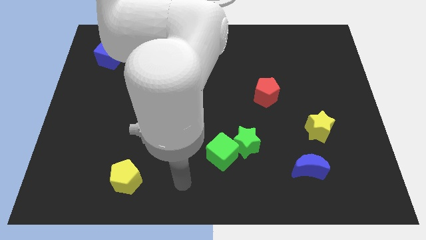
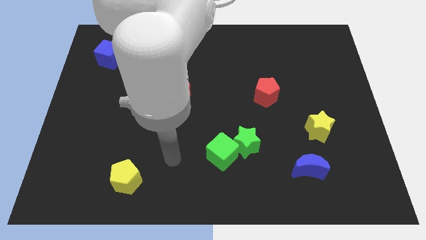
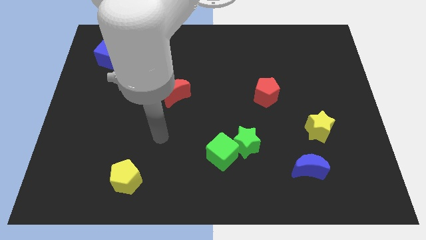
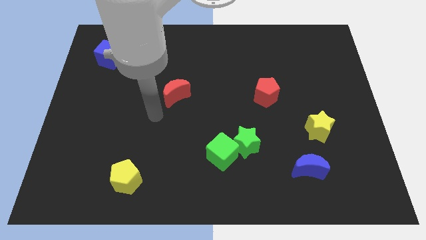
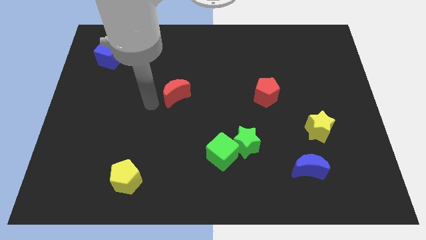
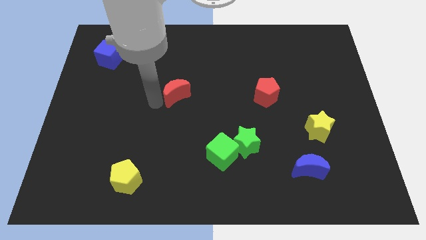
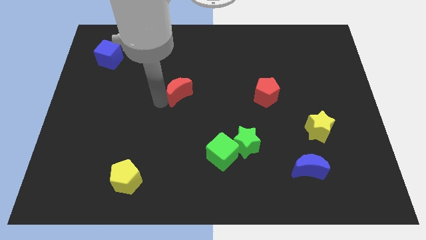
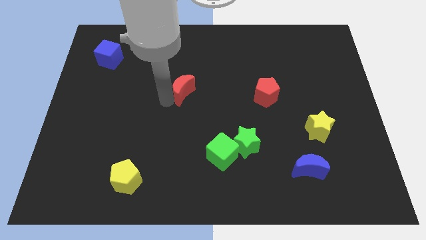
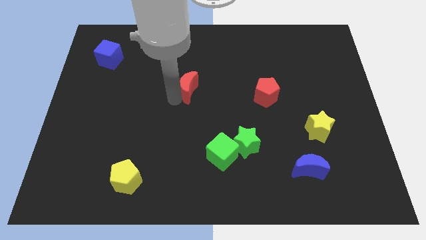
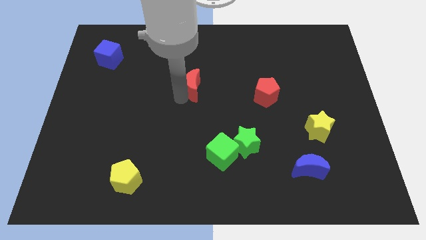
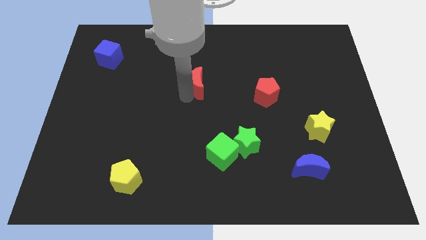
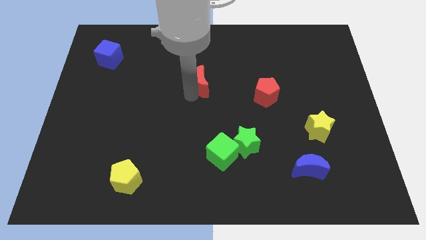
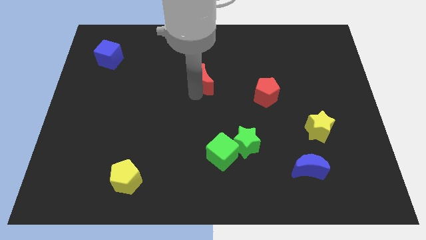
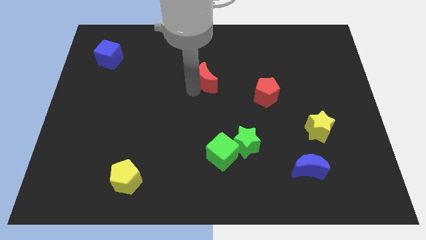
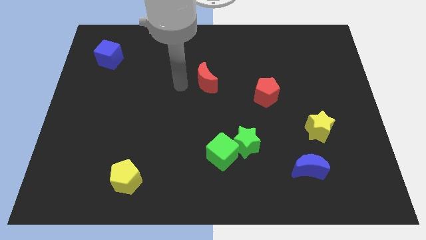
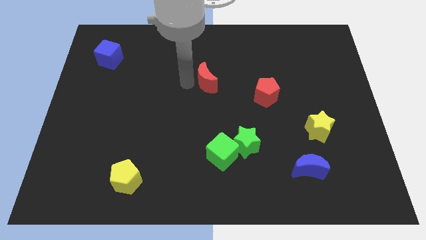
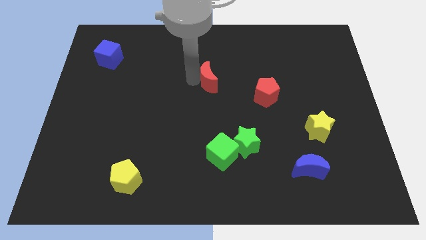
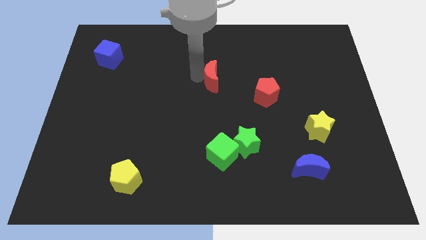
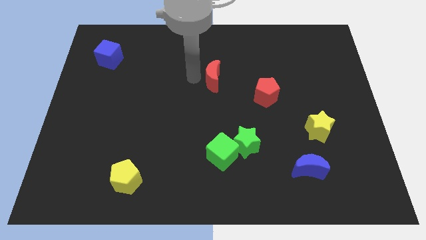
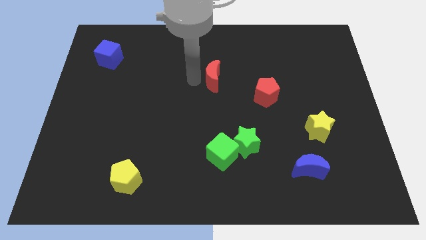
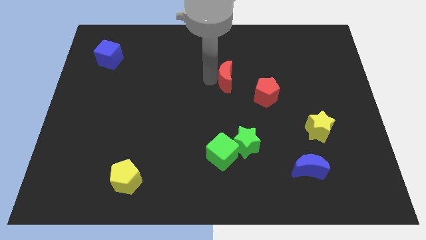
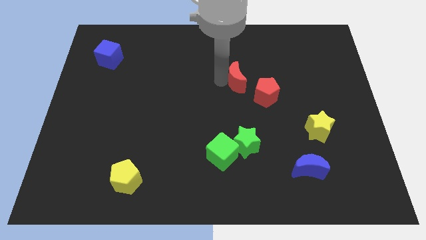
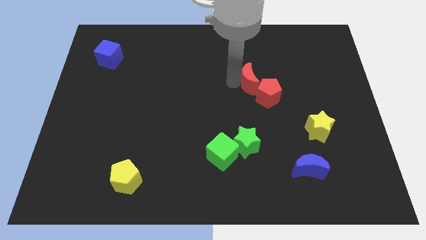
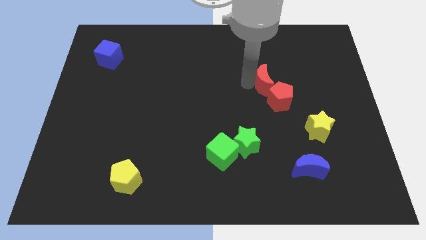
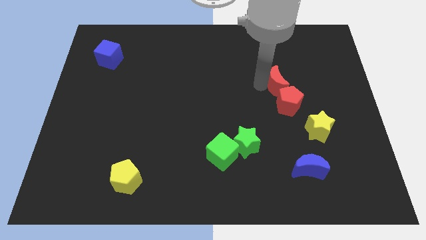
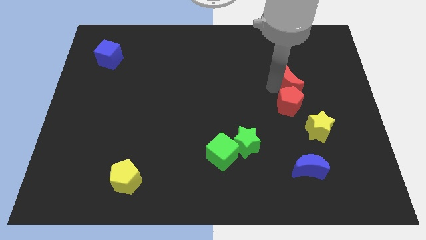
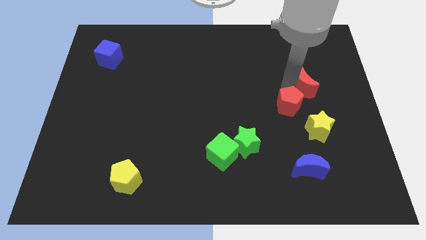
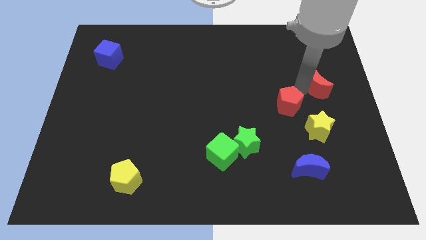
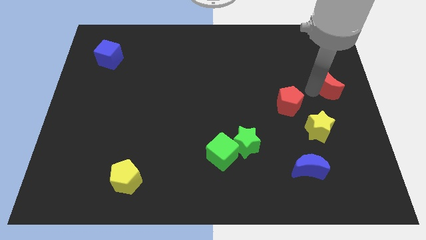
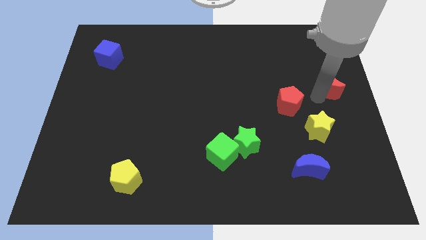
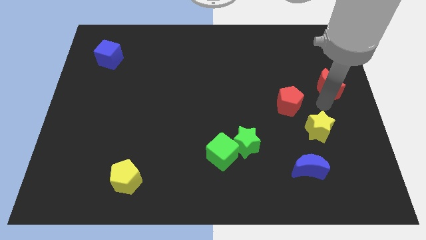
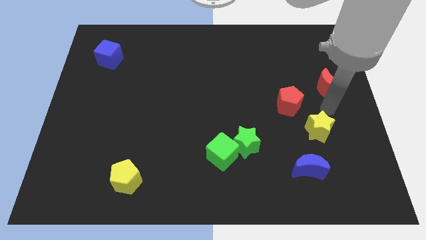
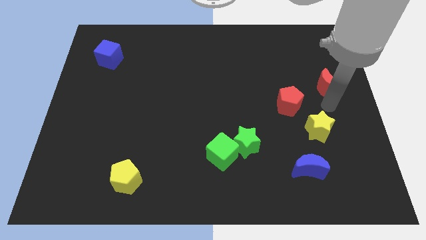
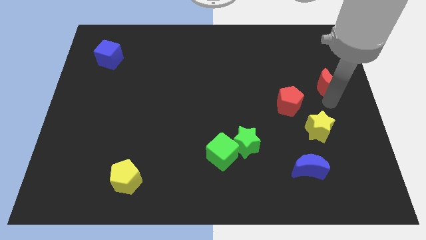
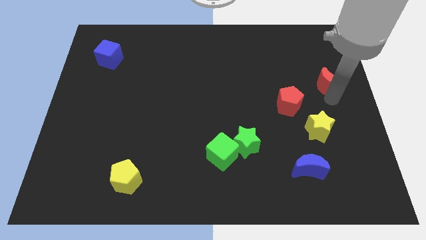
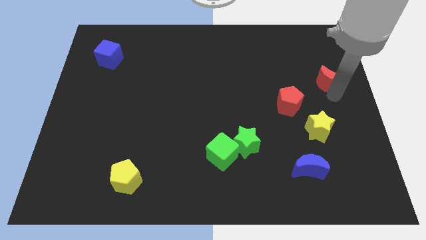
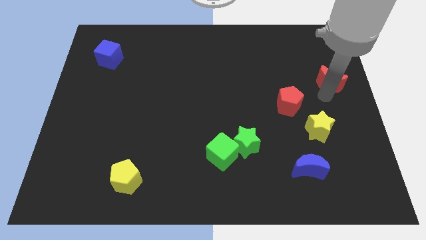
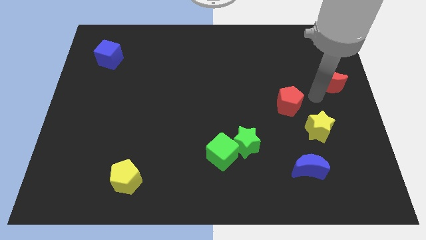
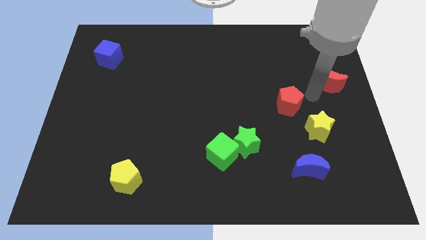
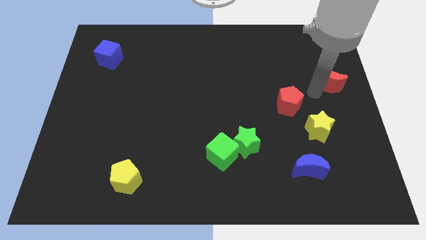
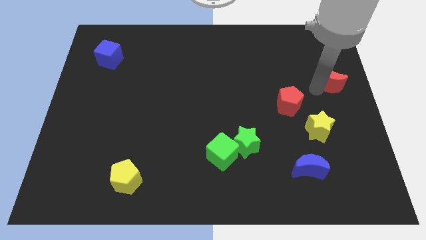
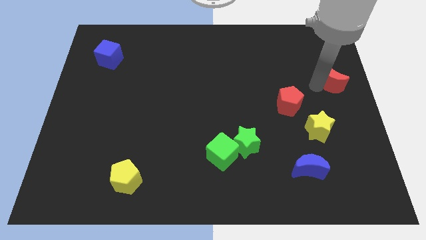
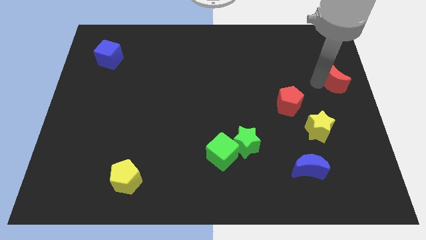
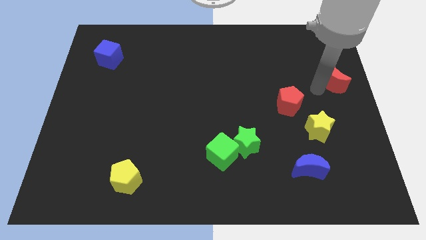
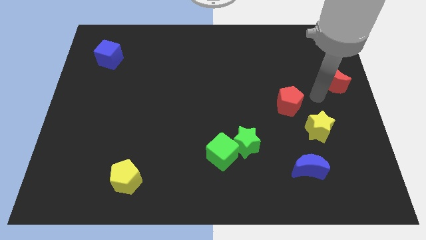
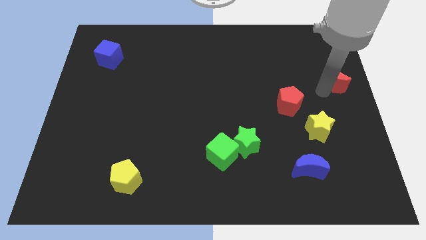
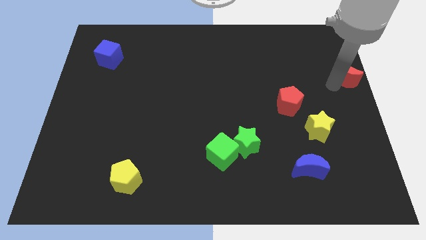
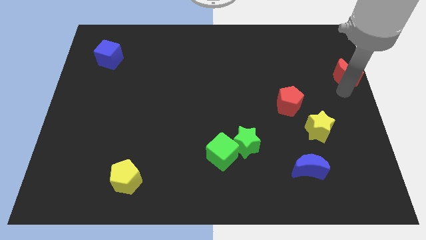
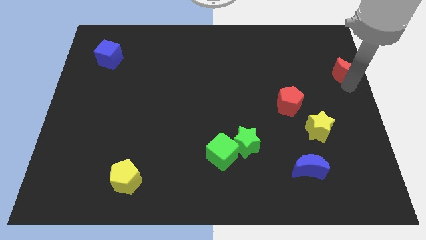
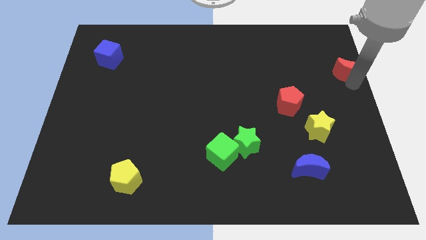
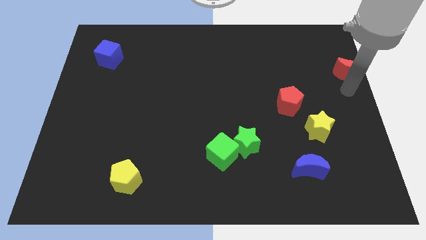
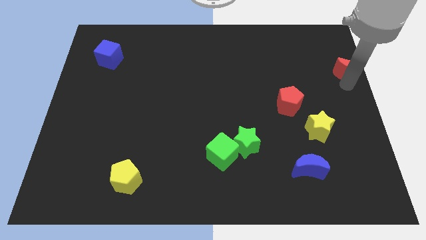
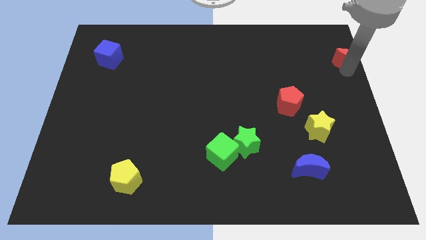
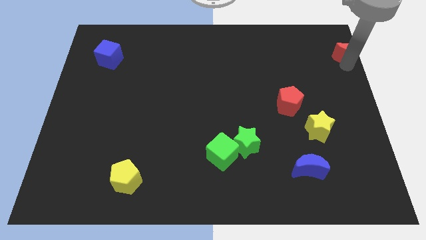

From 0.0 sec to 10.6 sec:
move the red moon to the top right of the board

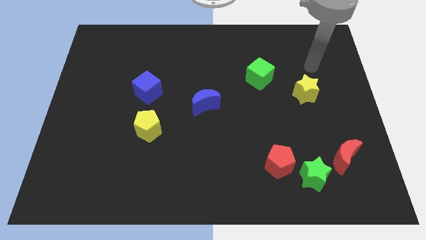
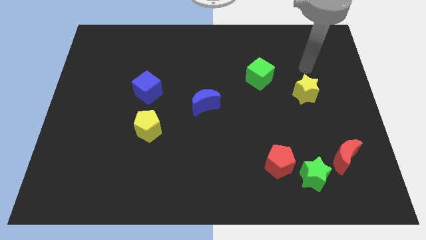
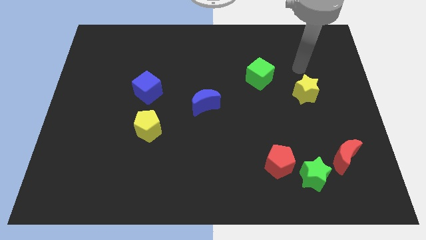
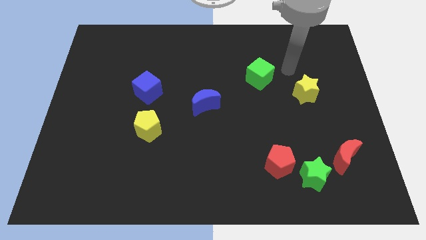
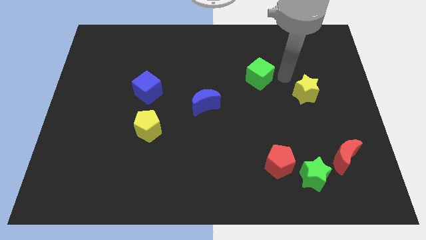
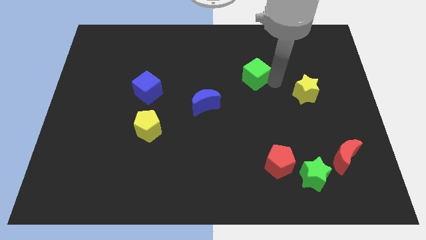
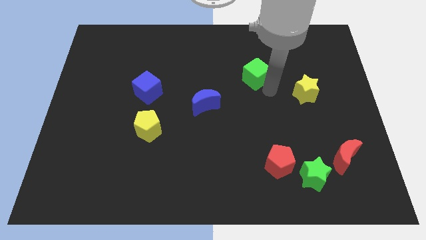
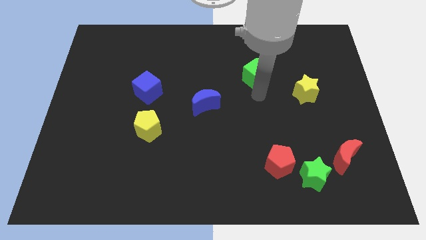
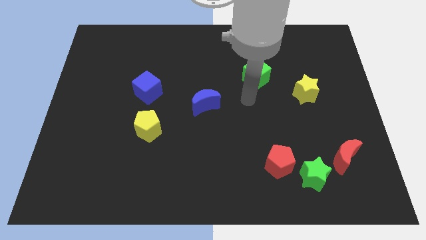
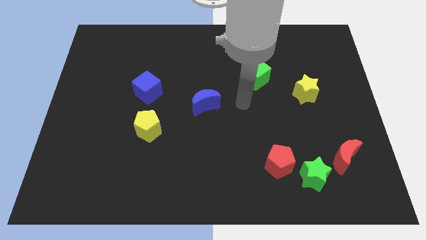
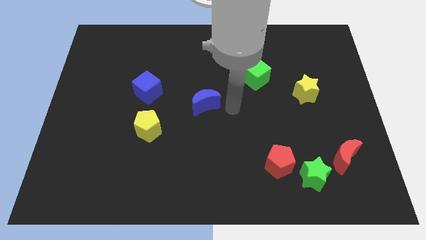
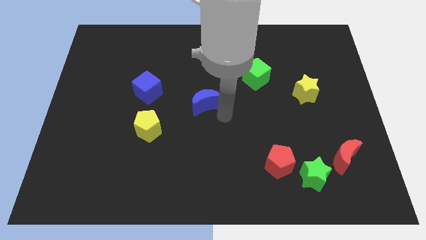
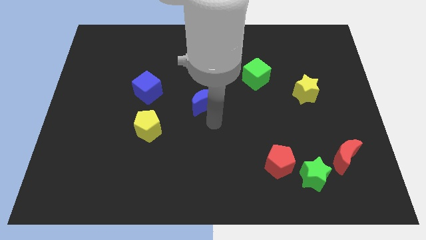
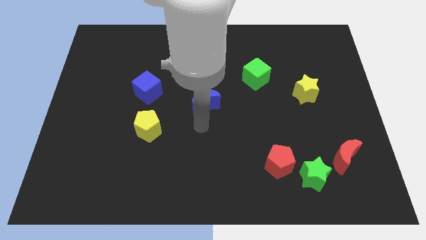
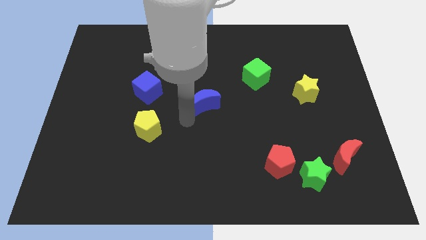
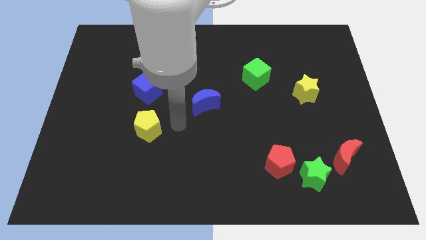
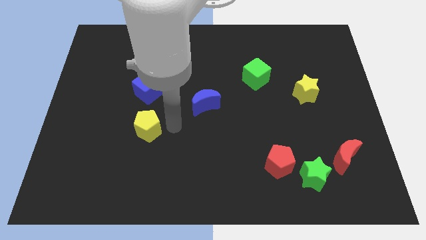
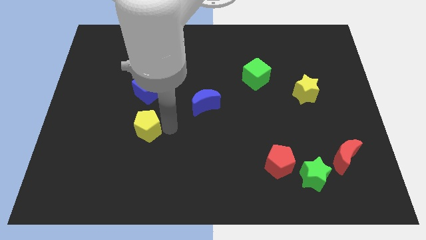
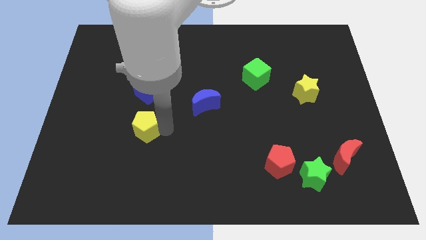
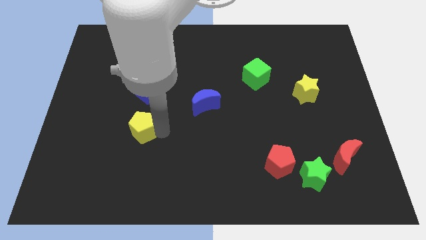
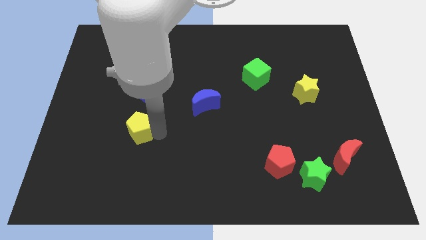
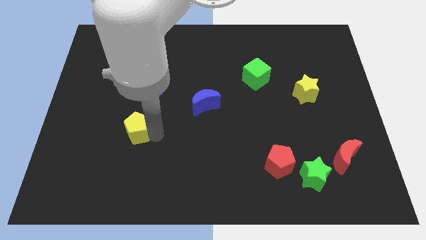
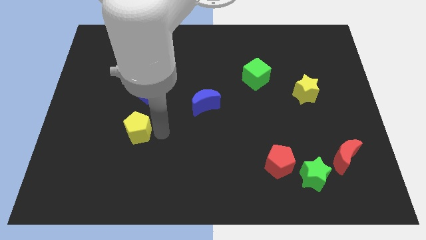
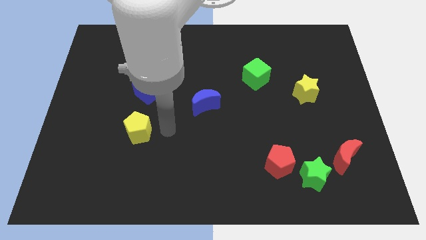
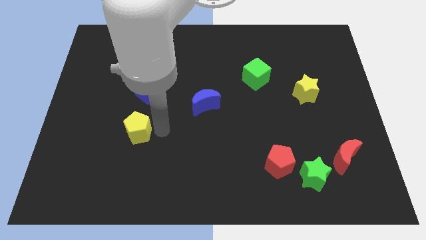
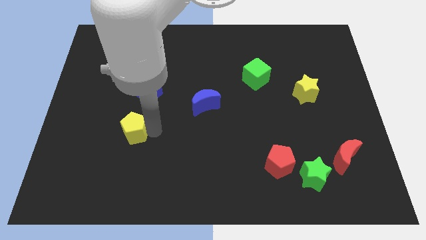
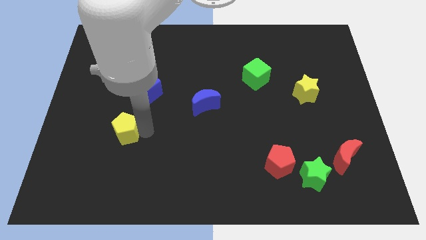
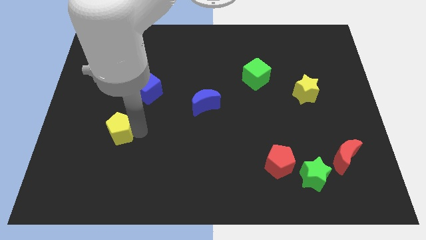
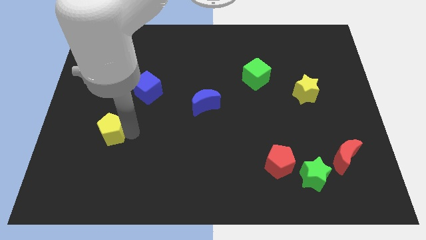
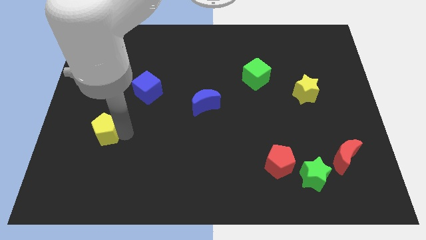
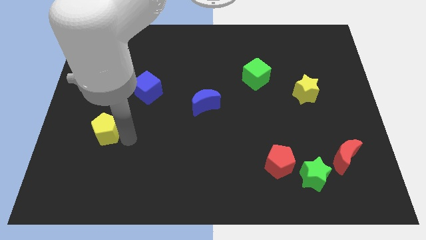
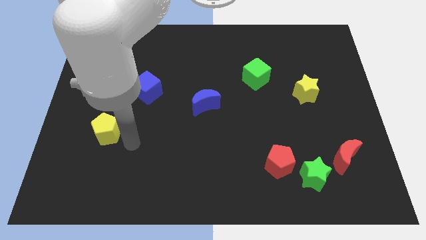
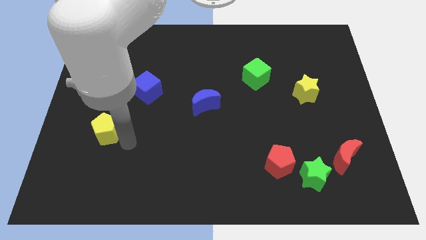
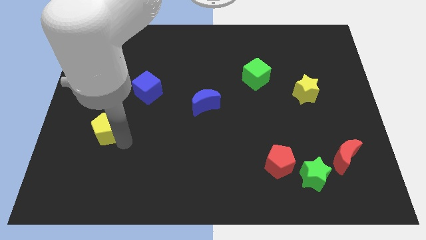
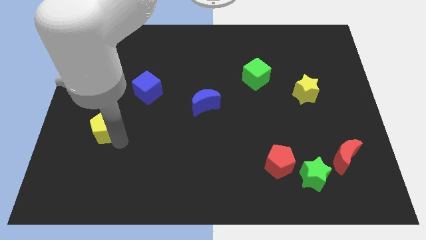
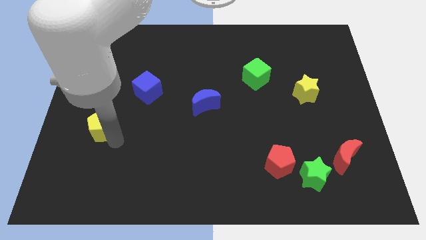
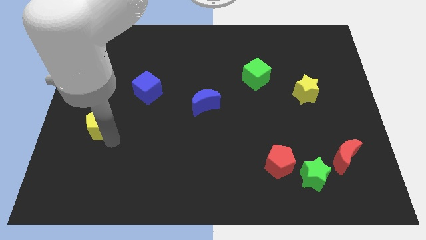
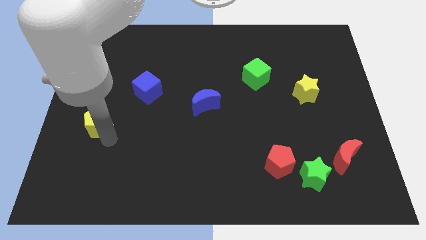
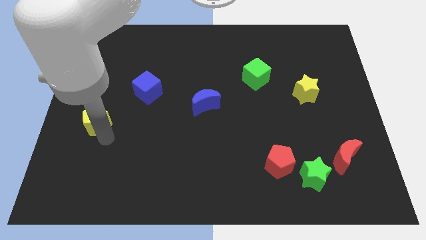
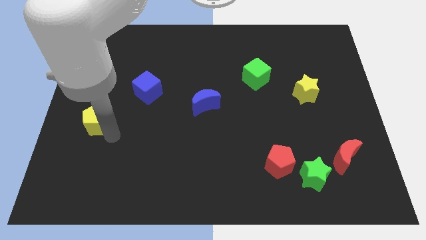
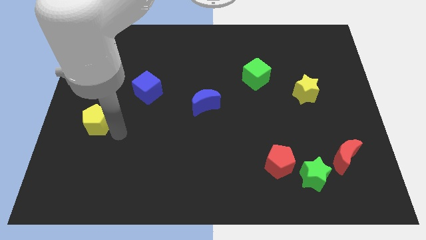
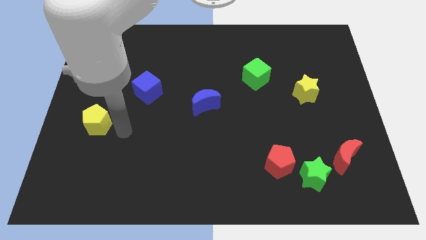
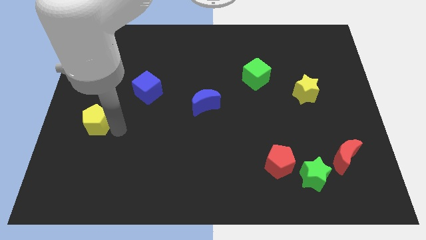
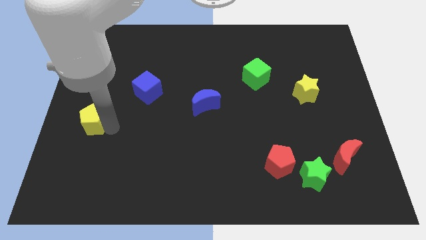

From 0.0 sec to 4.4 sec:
put the yellow pentagon to the left side
